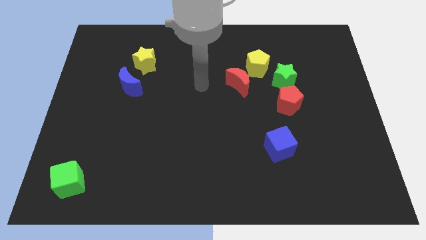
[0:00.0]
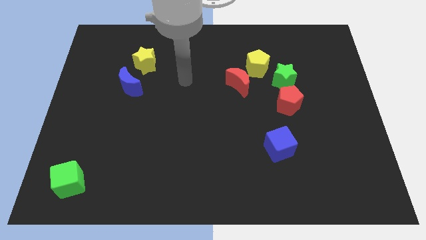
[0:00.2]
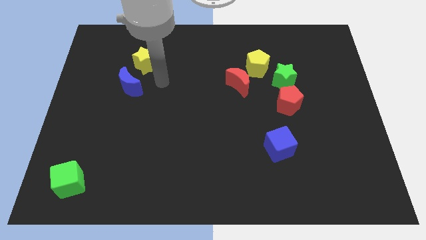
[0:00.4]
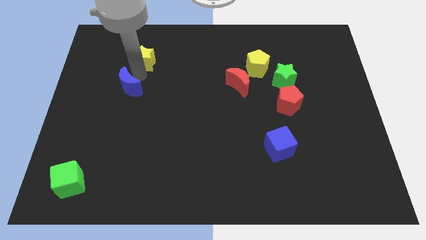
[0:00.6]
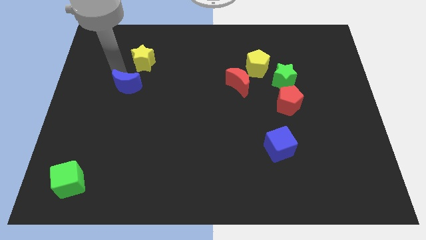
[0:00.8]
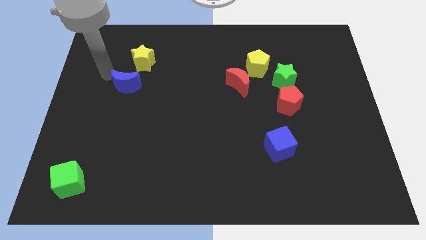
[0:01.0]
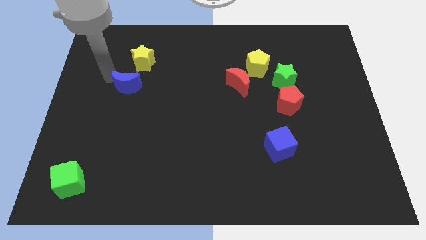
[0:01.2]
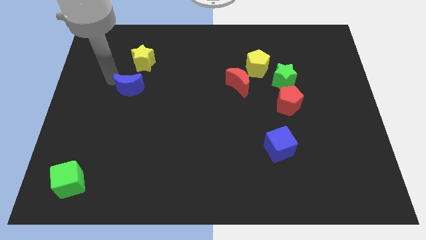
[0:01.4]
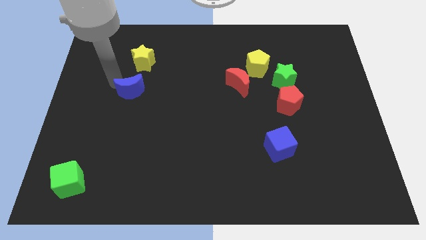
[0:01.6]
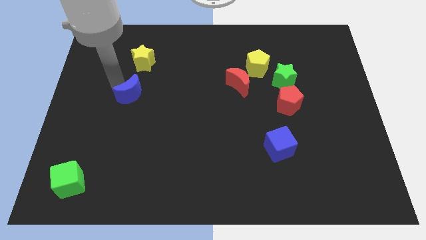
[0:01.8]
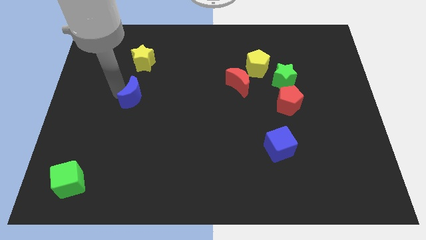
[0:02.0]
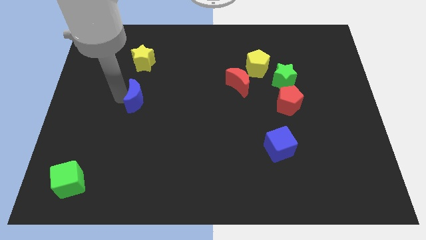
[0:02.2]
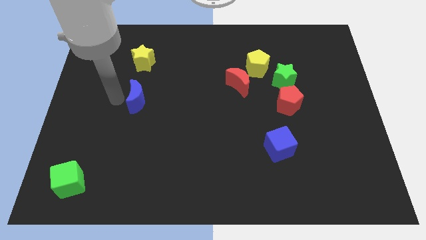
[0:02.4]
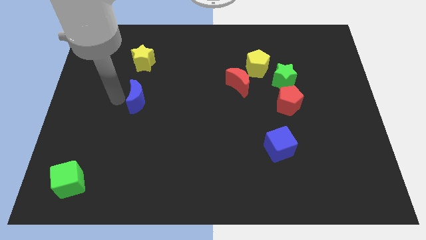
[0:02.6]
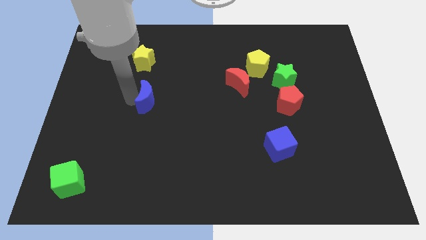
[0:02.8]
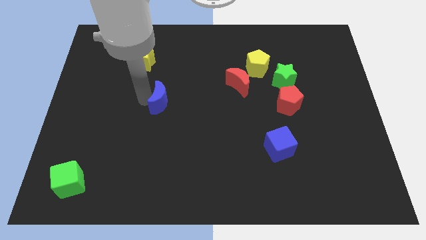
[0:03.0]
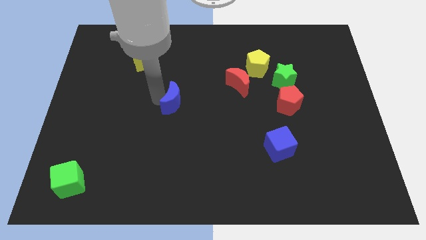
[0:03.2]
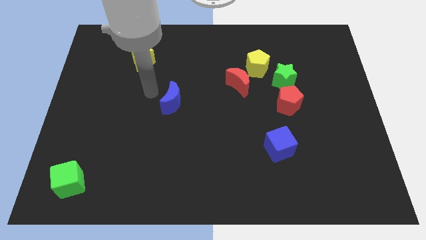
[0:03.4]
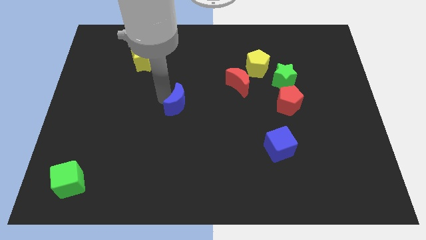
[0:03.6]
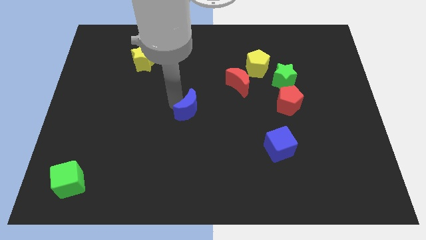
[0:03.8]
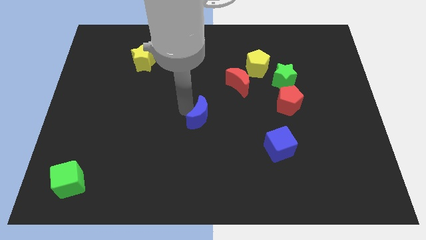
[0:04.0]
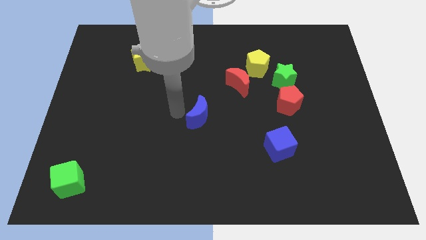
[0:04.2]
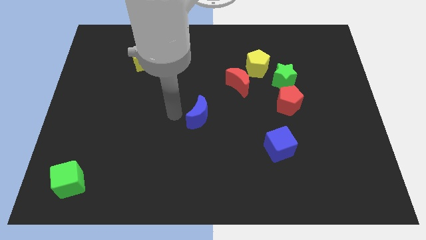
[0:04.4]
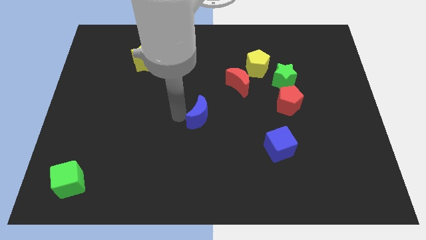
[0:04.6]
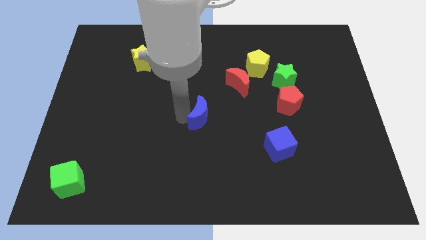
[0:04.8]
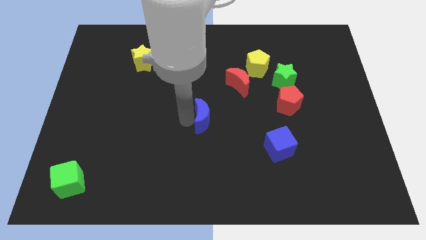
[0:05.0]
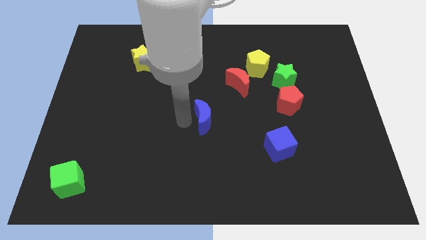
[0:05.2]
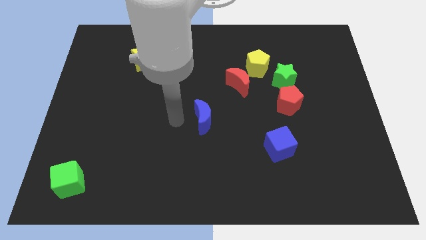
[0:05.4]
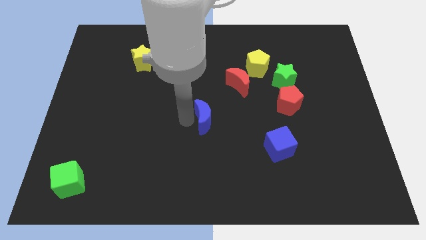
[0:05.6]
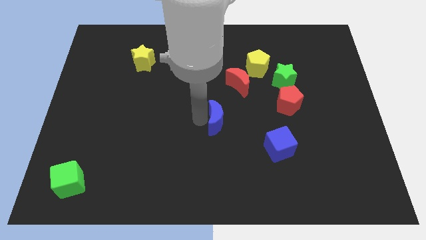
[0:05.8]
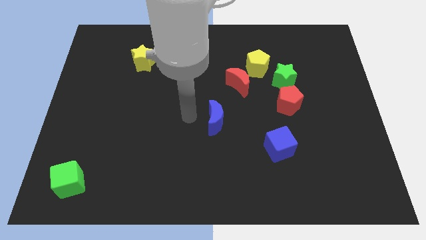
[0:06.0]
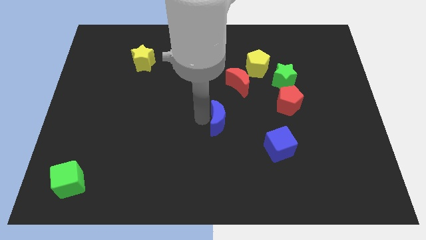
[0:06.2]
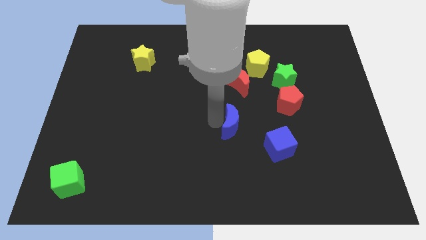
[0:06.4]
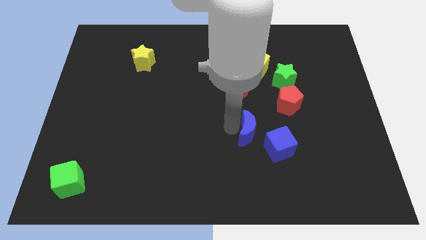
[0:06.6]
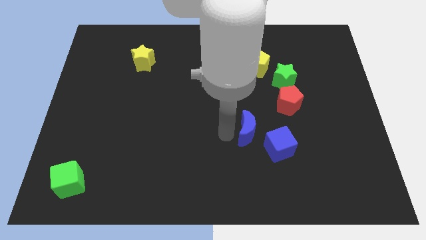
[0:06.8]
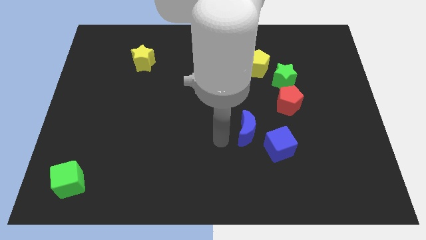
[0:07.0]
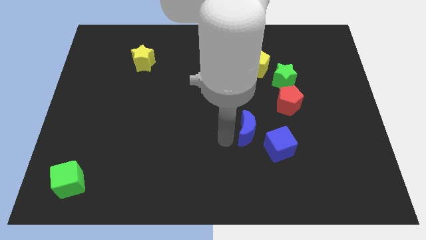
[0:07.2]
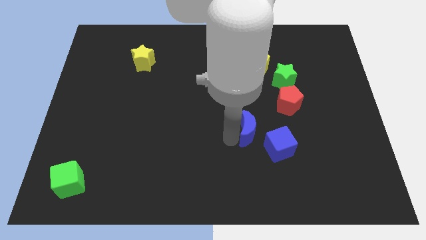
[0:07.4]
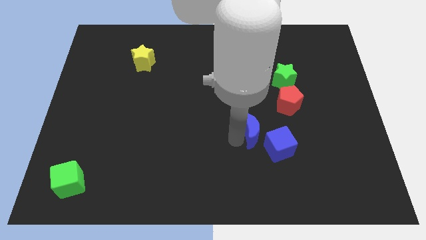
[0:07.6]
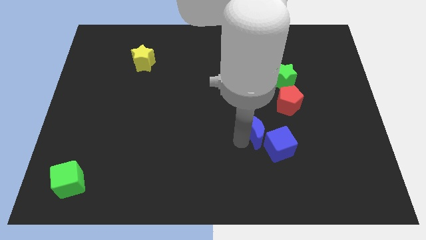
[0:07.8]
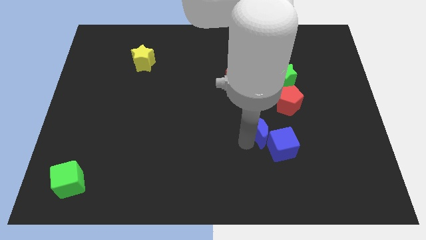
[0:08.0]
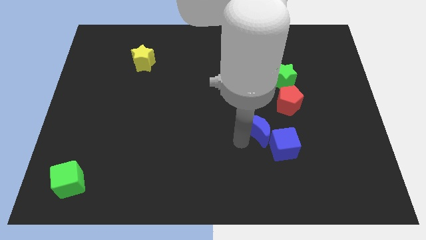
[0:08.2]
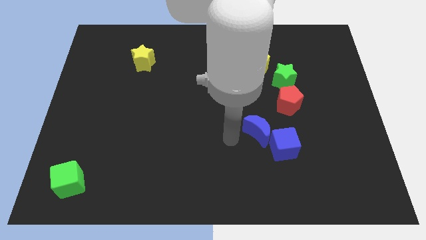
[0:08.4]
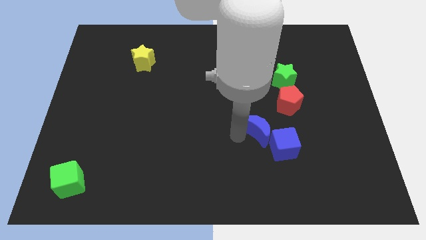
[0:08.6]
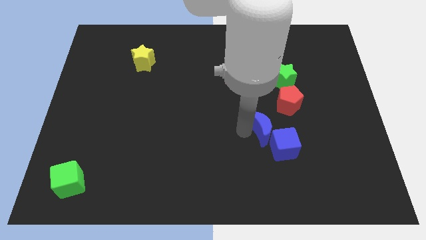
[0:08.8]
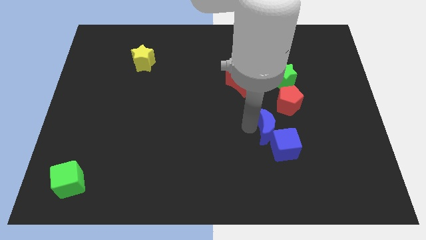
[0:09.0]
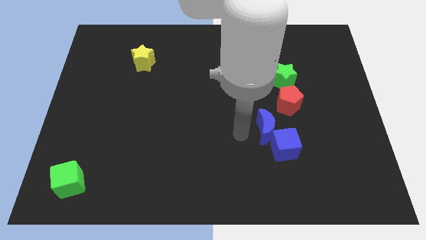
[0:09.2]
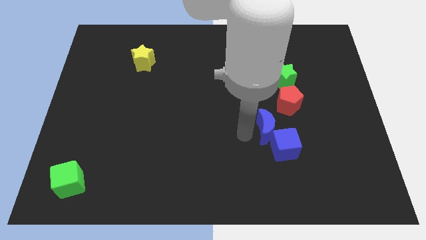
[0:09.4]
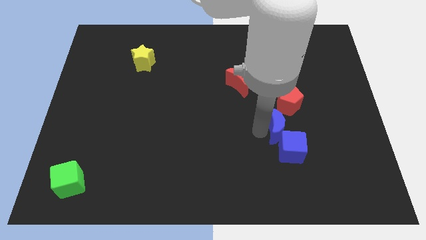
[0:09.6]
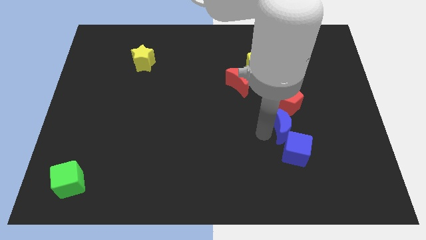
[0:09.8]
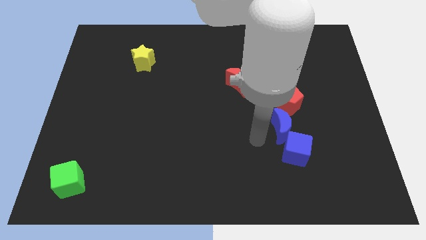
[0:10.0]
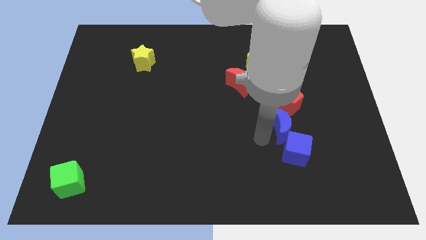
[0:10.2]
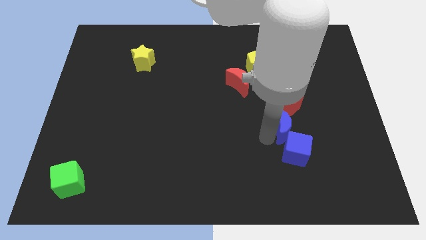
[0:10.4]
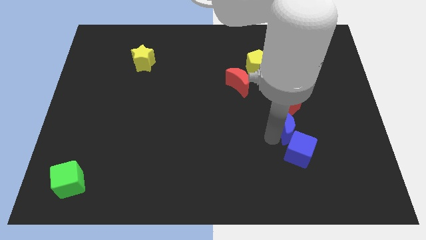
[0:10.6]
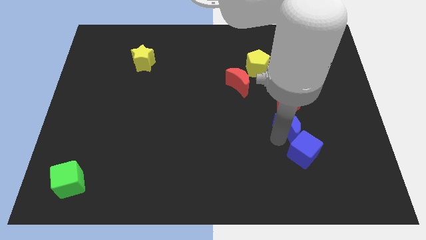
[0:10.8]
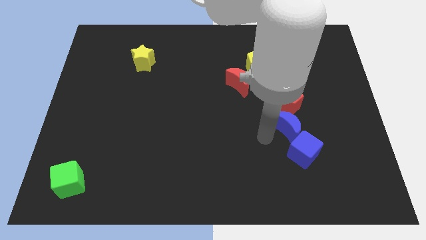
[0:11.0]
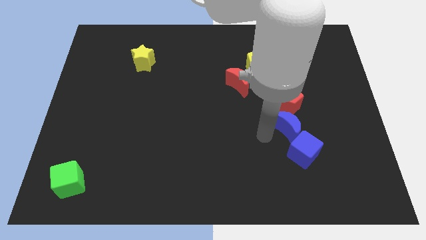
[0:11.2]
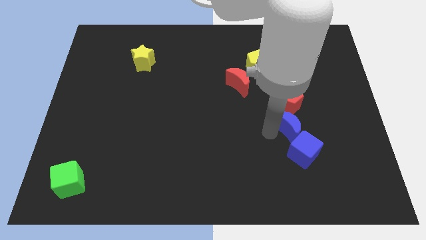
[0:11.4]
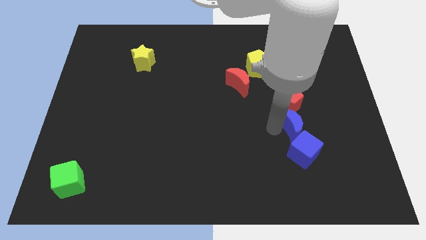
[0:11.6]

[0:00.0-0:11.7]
slide the blue moon to the bottom right of the red pentagon

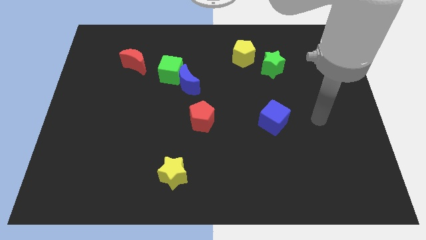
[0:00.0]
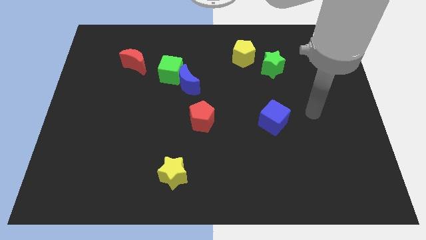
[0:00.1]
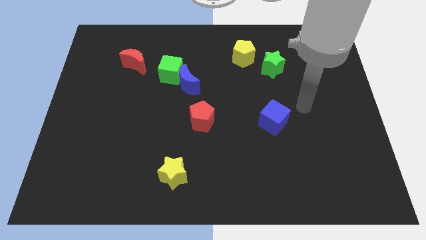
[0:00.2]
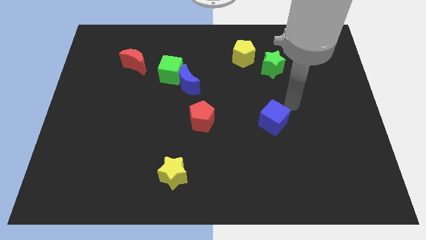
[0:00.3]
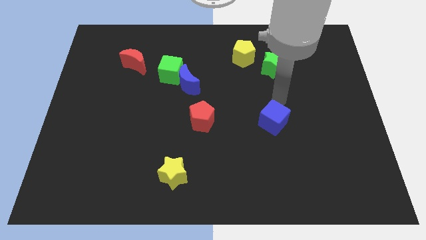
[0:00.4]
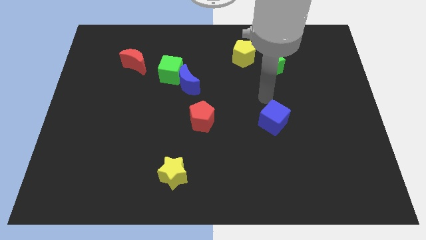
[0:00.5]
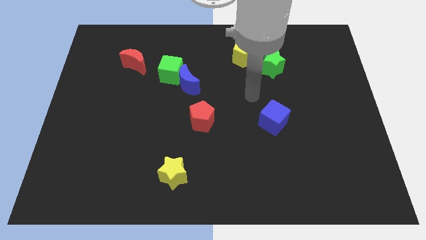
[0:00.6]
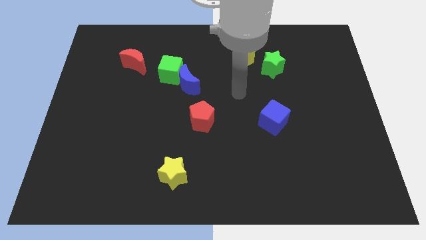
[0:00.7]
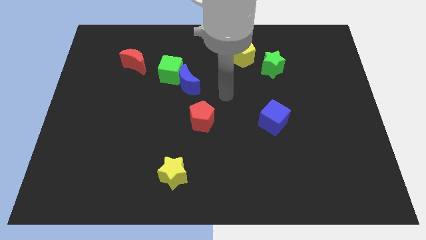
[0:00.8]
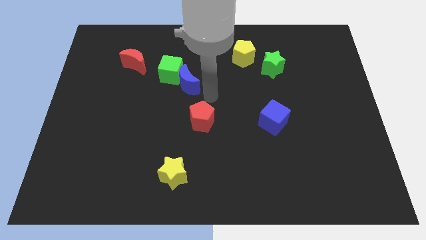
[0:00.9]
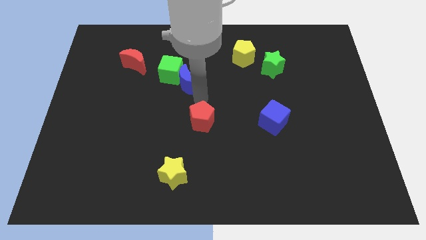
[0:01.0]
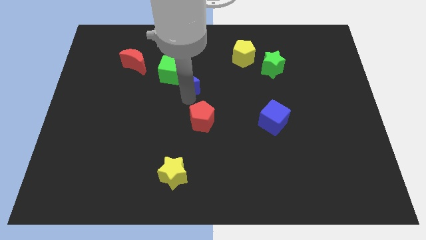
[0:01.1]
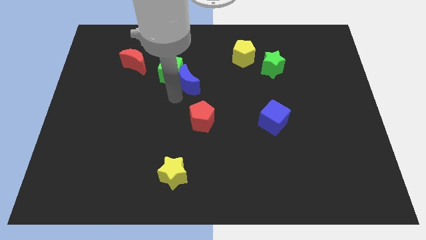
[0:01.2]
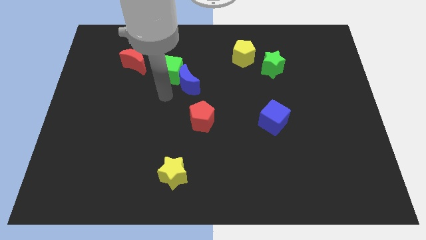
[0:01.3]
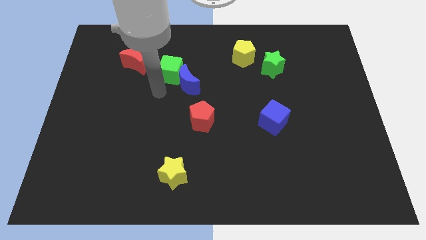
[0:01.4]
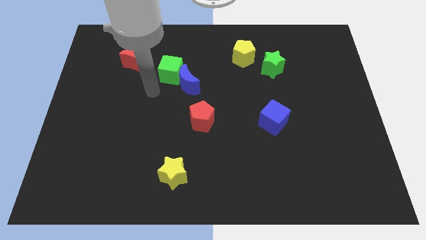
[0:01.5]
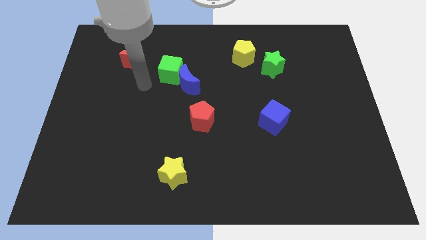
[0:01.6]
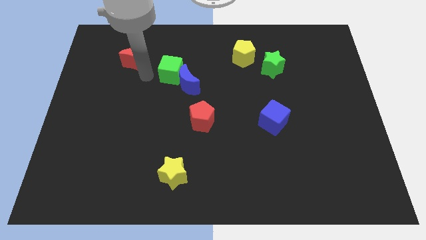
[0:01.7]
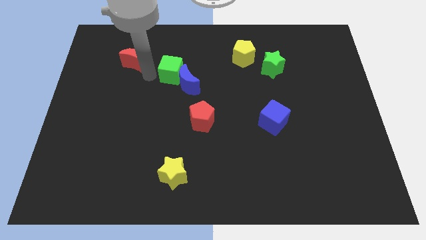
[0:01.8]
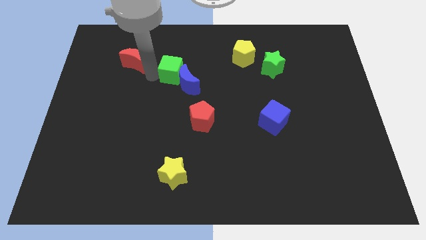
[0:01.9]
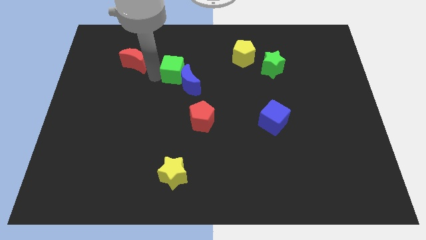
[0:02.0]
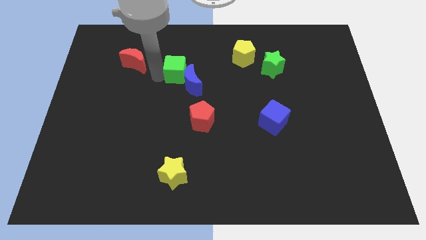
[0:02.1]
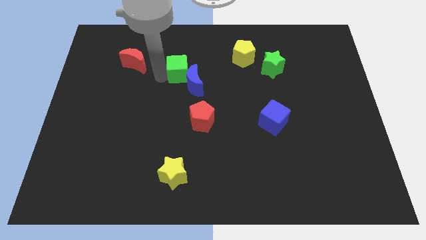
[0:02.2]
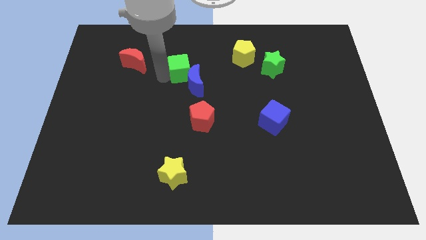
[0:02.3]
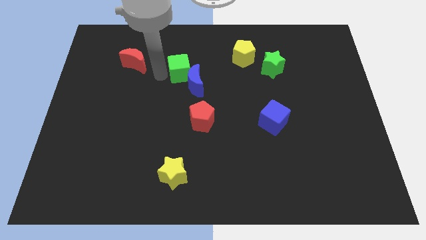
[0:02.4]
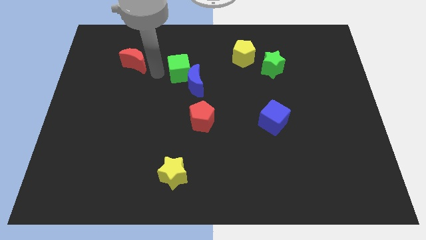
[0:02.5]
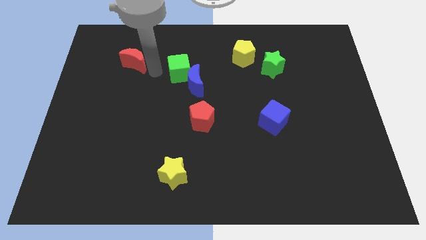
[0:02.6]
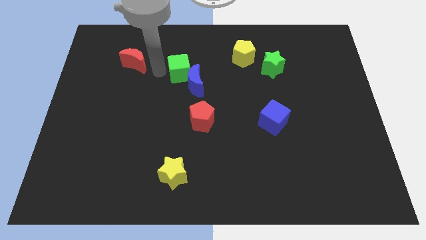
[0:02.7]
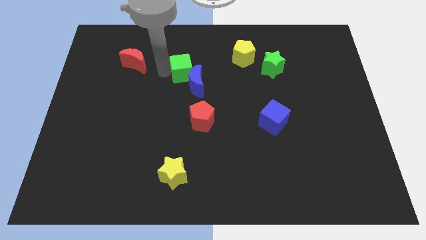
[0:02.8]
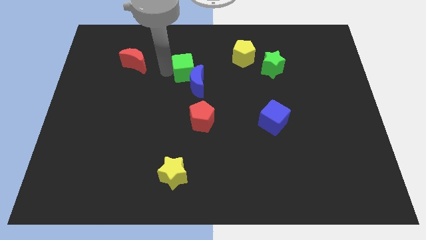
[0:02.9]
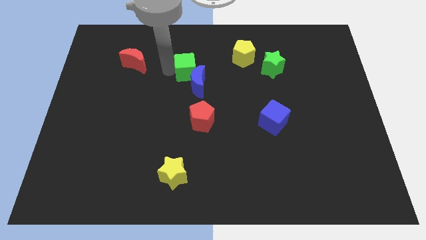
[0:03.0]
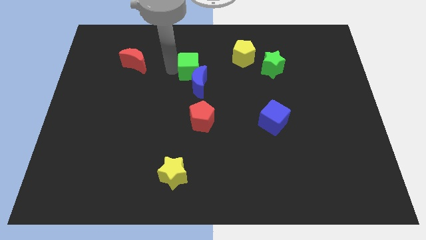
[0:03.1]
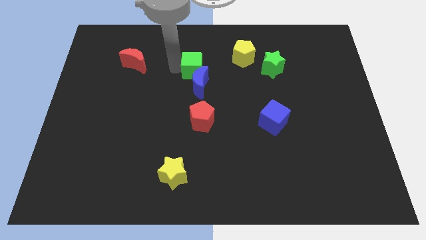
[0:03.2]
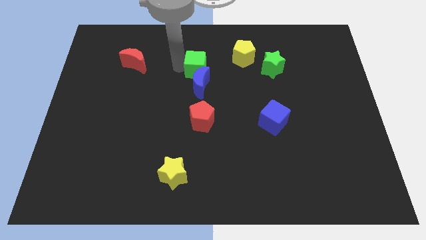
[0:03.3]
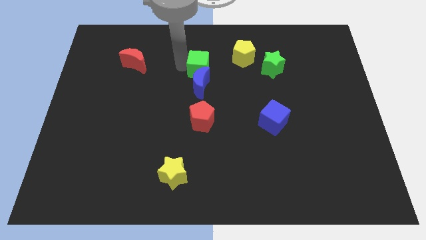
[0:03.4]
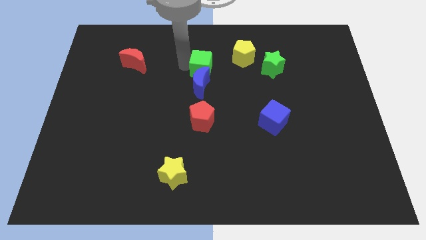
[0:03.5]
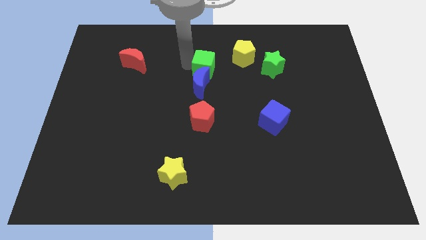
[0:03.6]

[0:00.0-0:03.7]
move the green cube diagonally down and to the left of the yellow pentagon
